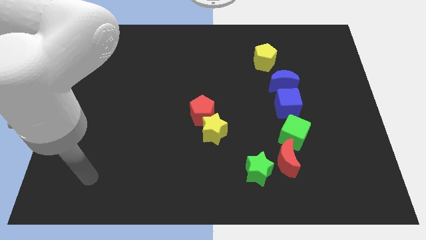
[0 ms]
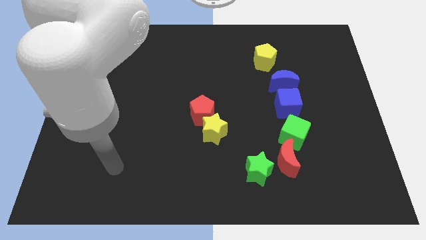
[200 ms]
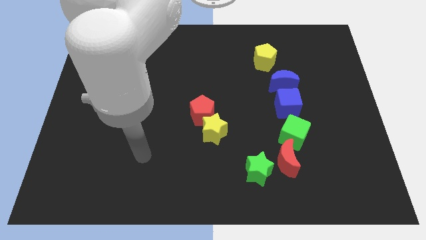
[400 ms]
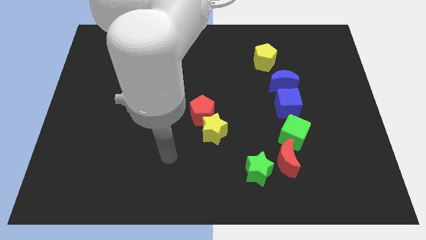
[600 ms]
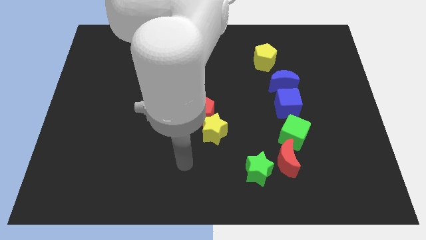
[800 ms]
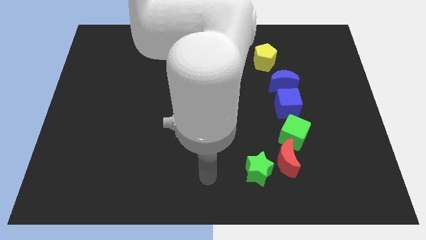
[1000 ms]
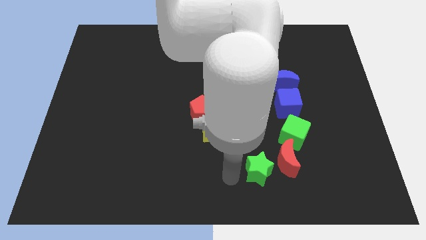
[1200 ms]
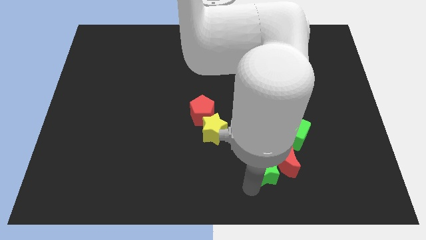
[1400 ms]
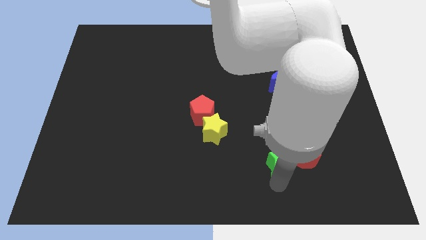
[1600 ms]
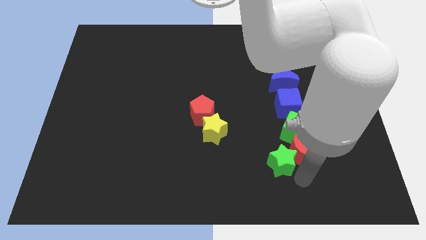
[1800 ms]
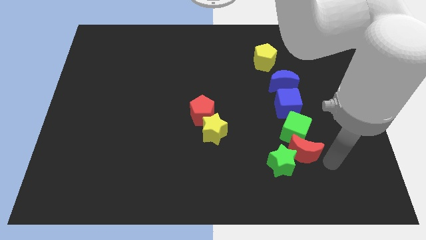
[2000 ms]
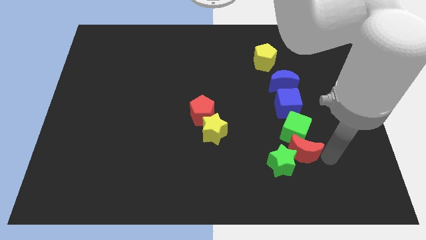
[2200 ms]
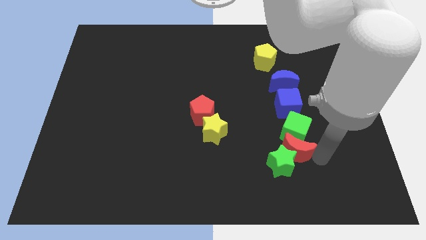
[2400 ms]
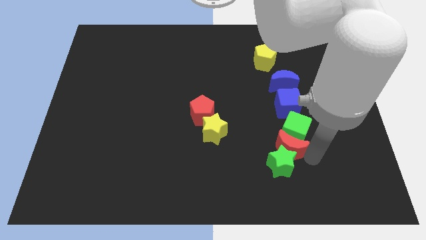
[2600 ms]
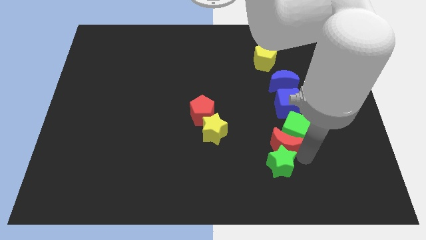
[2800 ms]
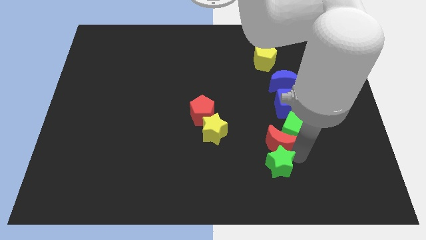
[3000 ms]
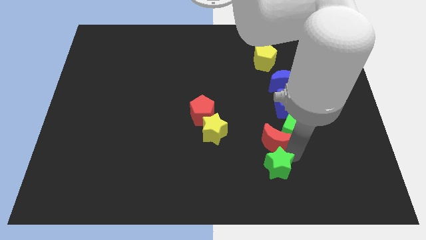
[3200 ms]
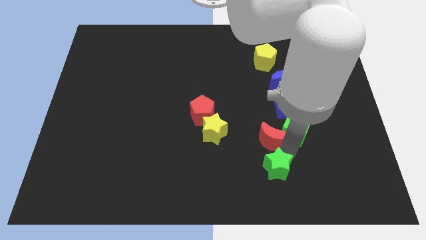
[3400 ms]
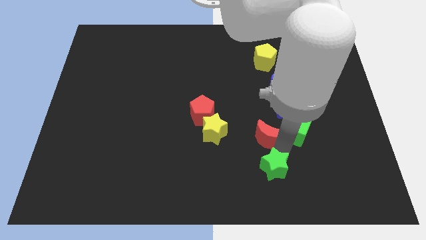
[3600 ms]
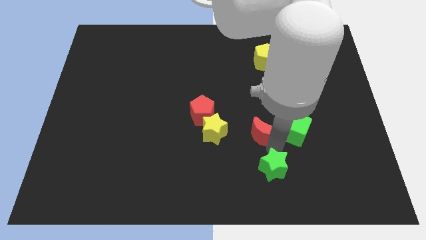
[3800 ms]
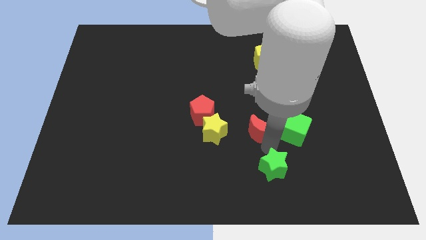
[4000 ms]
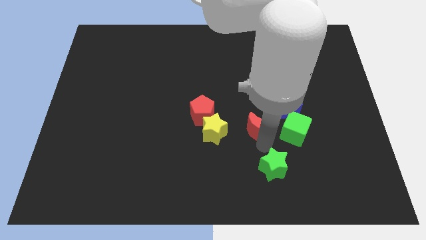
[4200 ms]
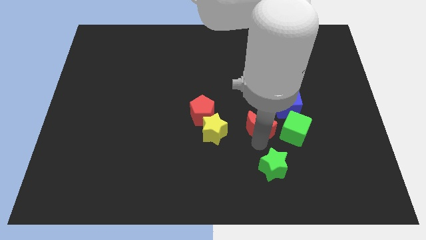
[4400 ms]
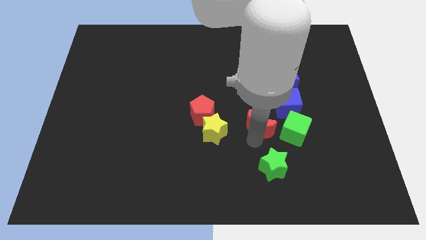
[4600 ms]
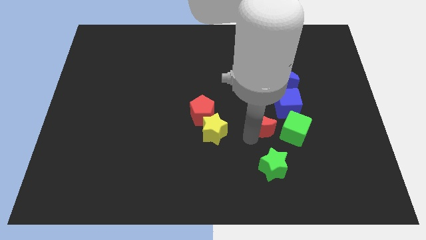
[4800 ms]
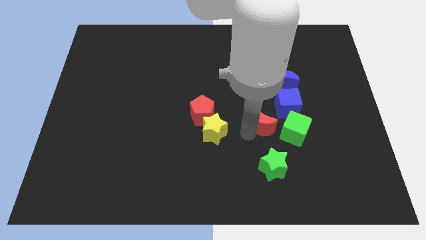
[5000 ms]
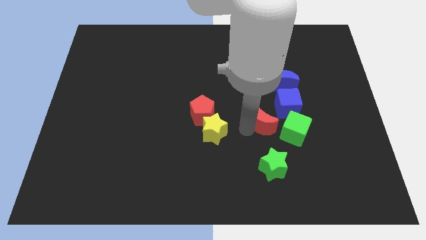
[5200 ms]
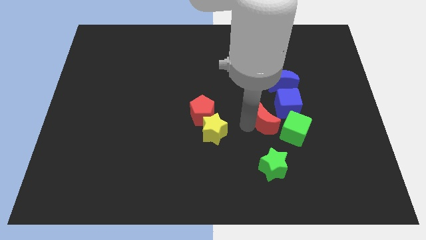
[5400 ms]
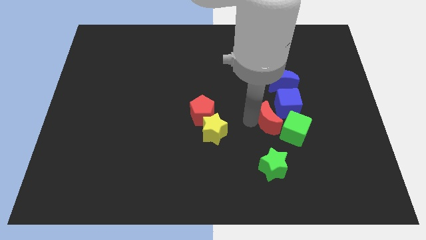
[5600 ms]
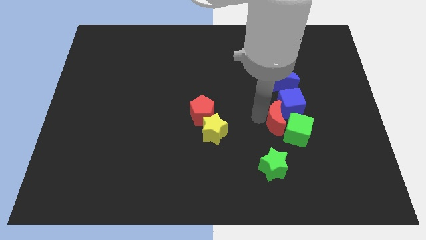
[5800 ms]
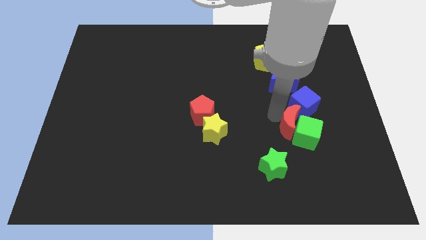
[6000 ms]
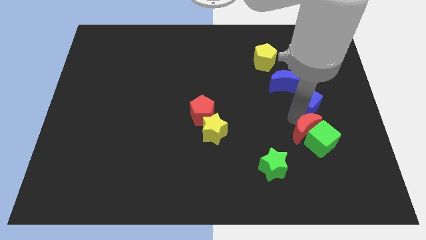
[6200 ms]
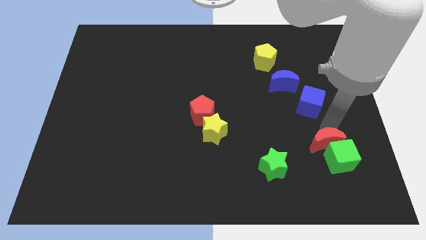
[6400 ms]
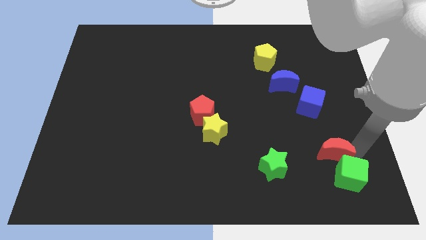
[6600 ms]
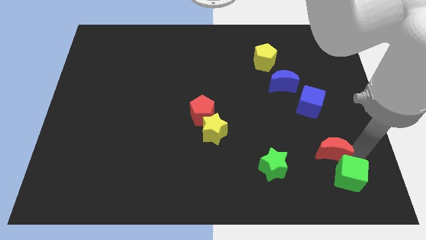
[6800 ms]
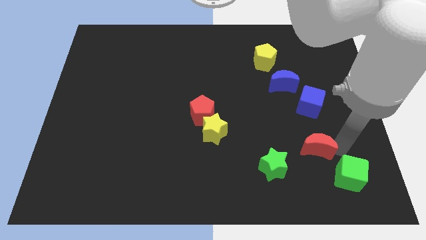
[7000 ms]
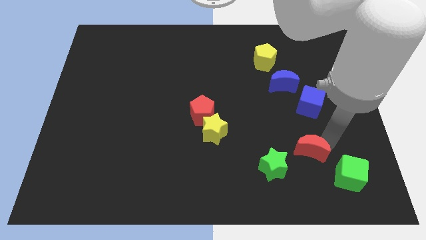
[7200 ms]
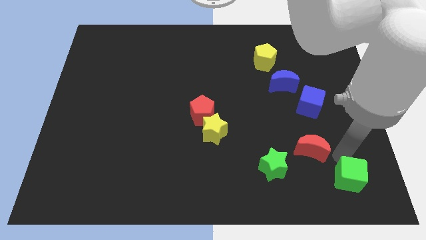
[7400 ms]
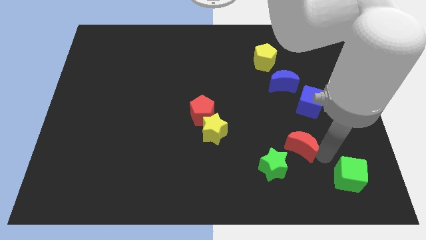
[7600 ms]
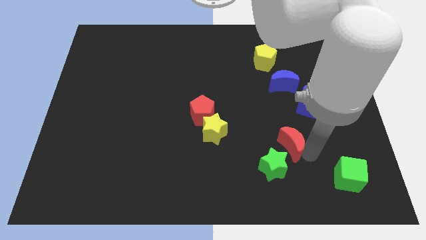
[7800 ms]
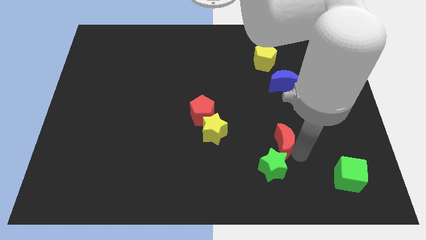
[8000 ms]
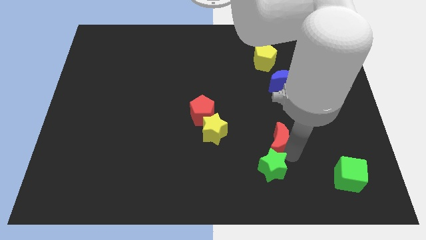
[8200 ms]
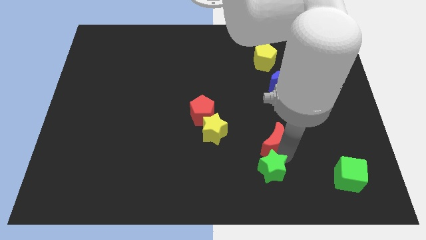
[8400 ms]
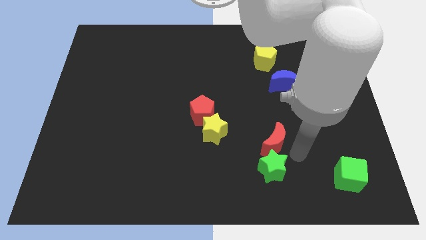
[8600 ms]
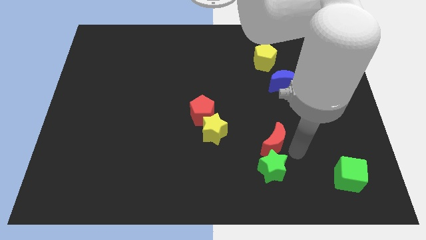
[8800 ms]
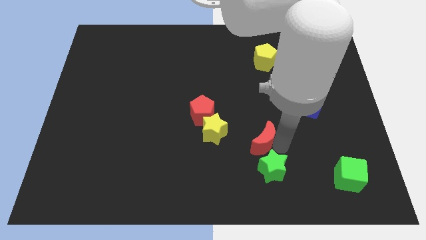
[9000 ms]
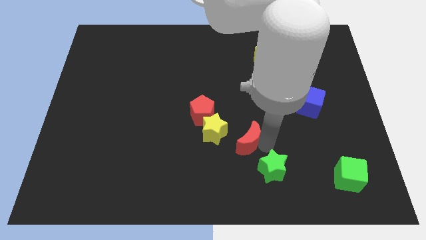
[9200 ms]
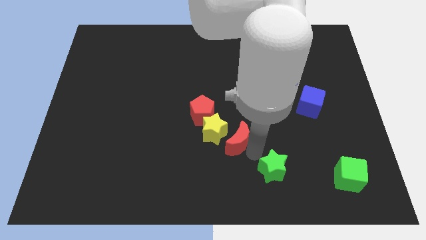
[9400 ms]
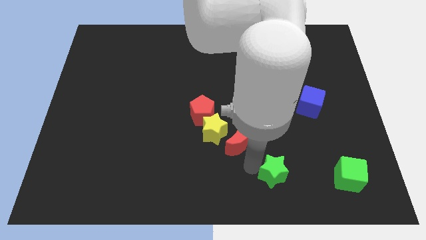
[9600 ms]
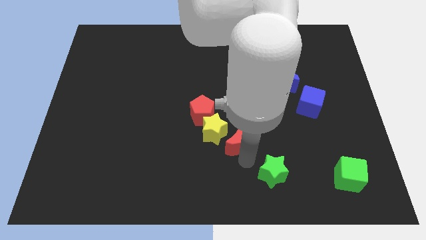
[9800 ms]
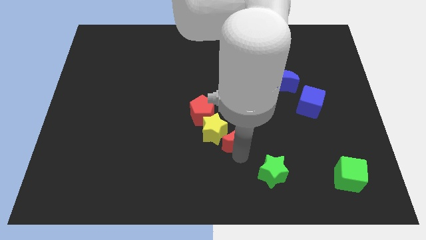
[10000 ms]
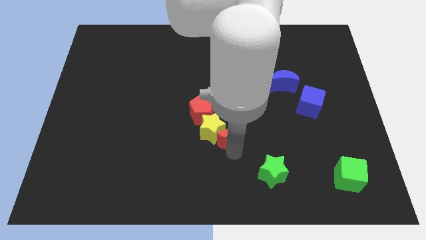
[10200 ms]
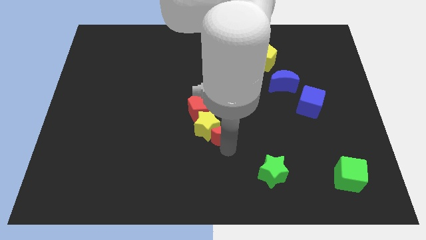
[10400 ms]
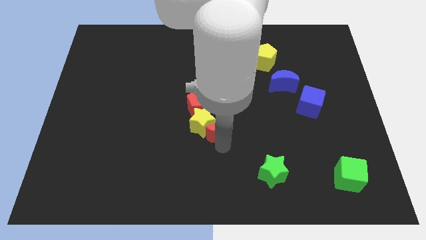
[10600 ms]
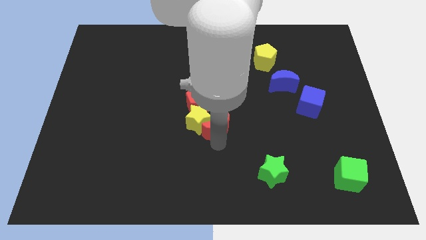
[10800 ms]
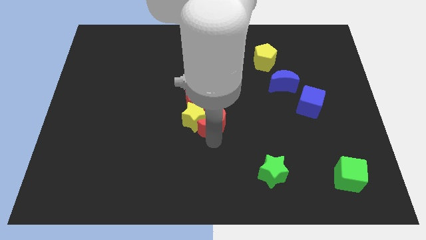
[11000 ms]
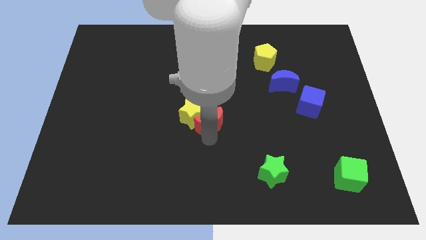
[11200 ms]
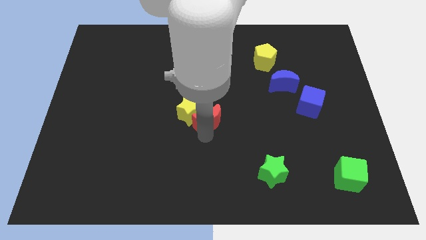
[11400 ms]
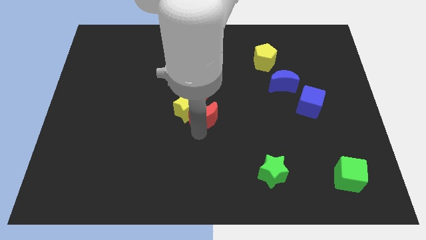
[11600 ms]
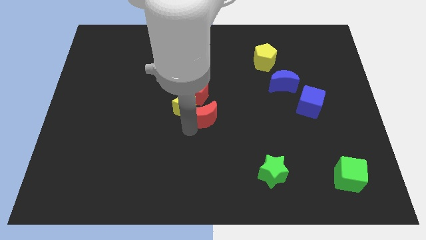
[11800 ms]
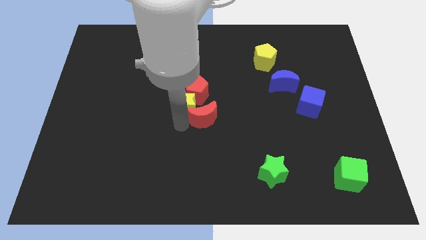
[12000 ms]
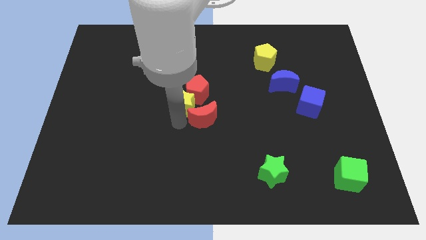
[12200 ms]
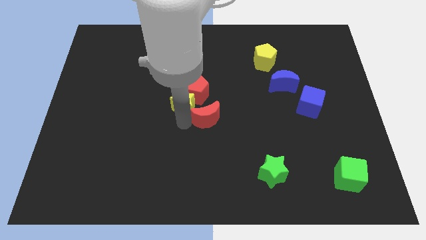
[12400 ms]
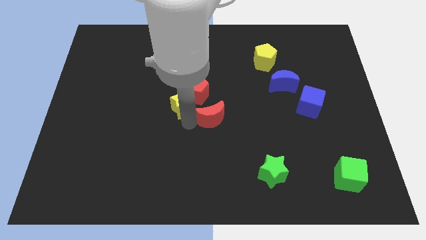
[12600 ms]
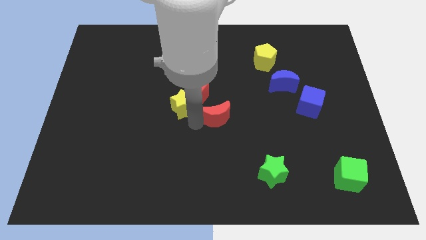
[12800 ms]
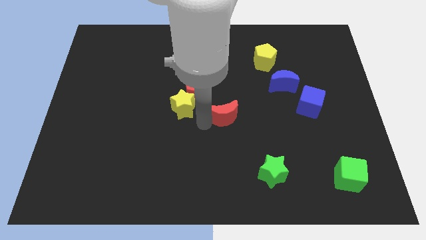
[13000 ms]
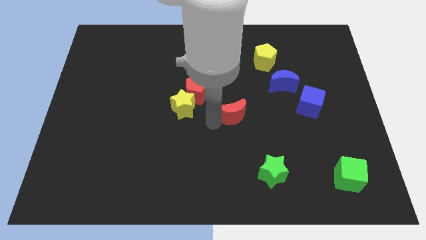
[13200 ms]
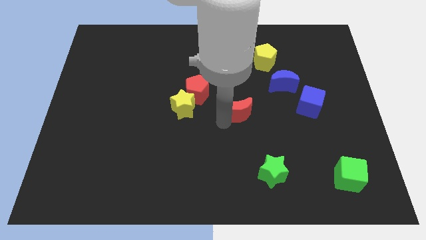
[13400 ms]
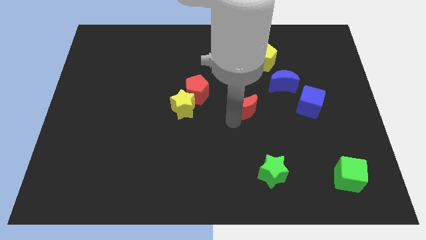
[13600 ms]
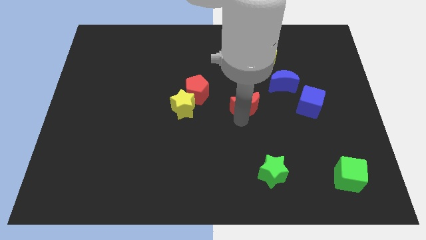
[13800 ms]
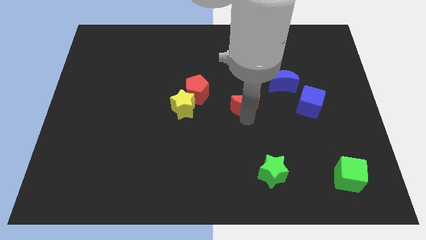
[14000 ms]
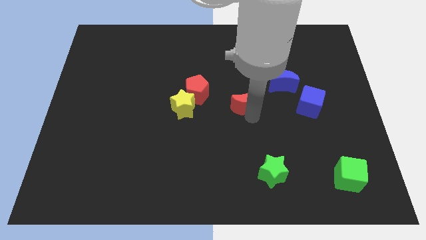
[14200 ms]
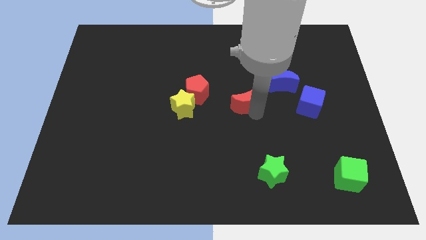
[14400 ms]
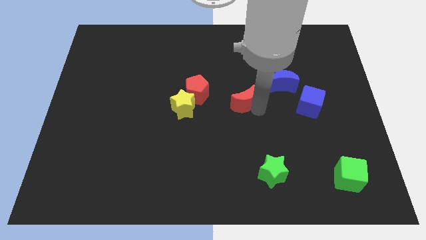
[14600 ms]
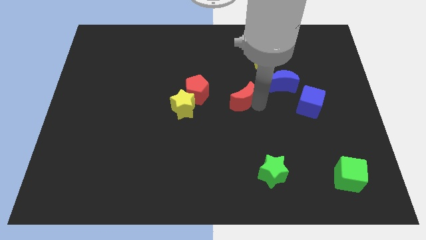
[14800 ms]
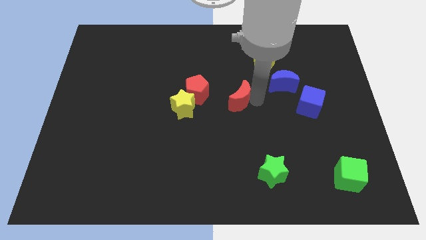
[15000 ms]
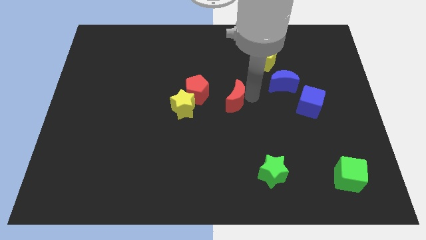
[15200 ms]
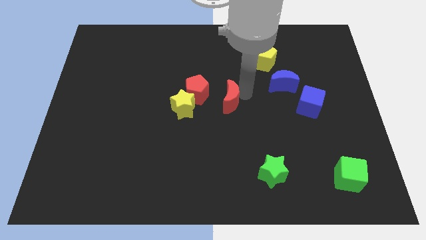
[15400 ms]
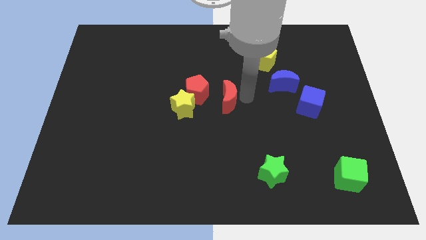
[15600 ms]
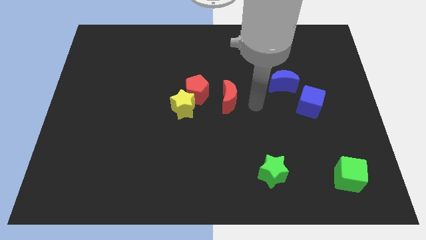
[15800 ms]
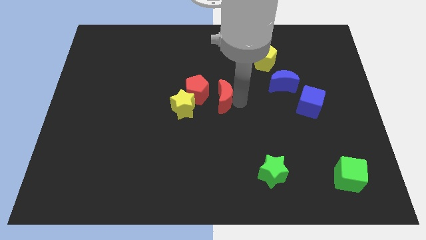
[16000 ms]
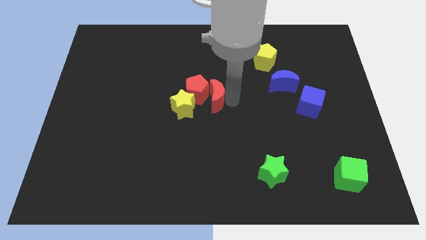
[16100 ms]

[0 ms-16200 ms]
move the red moon to the red pentagon
